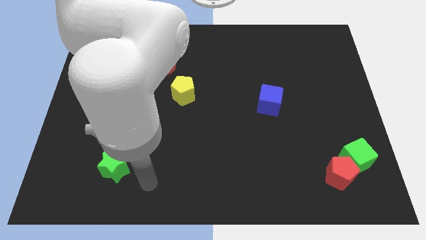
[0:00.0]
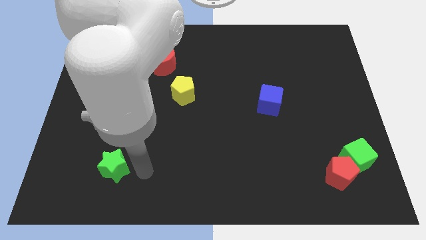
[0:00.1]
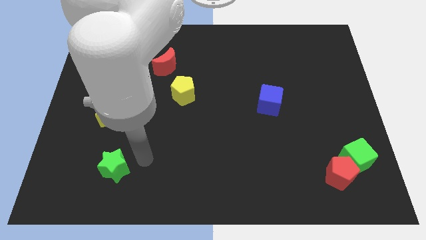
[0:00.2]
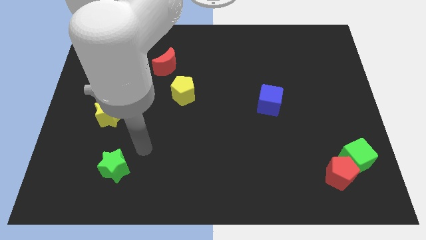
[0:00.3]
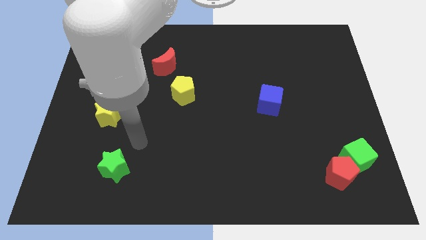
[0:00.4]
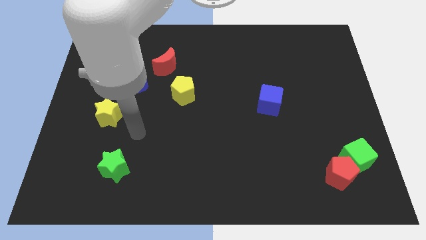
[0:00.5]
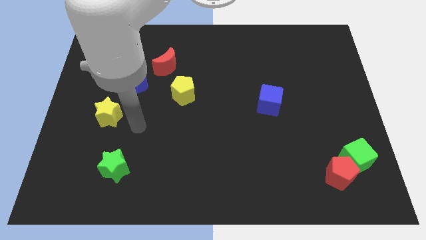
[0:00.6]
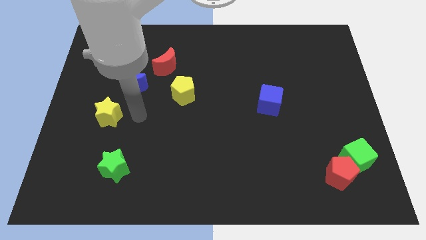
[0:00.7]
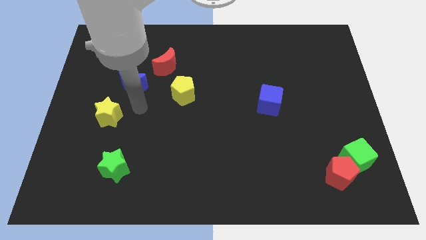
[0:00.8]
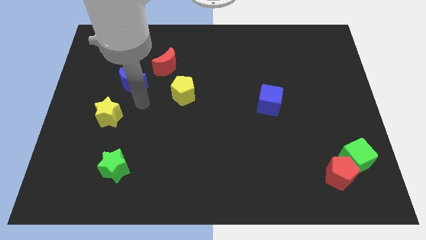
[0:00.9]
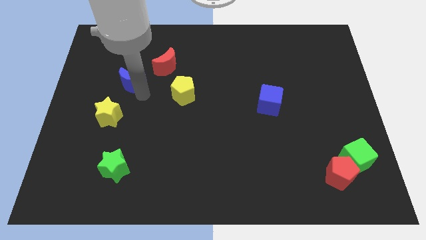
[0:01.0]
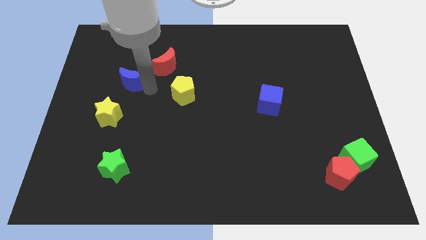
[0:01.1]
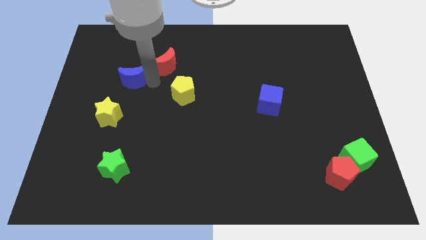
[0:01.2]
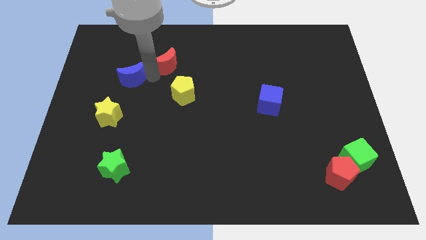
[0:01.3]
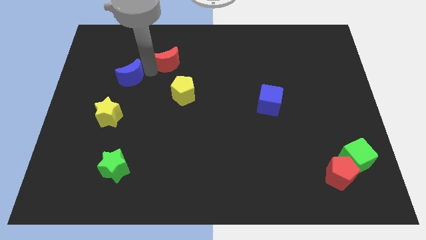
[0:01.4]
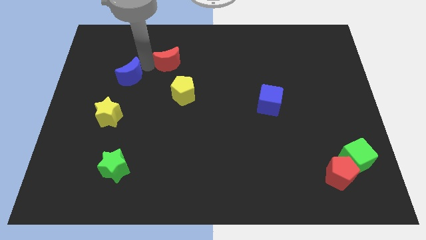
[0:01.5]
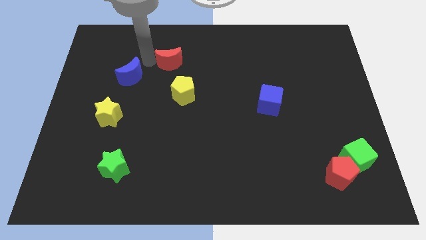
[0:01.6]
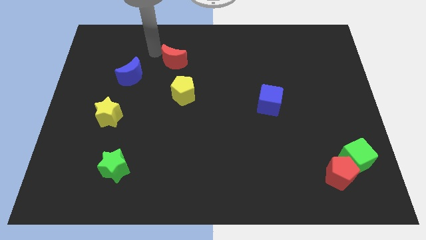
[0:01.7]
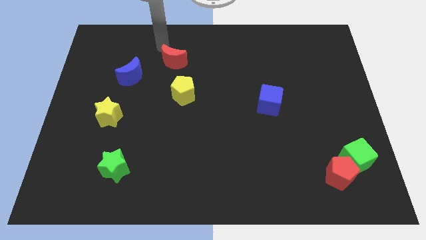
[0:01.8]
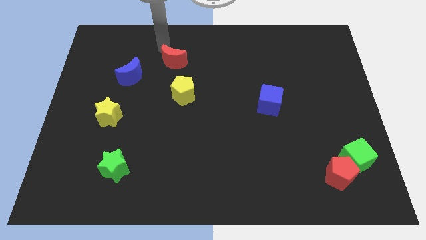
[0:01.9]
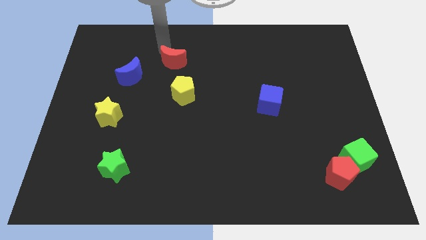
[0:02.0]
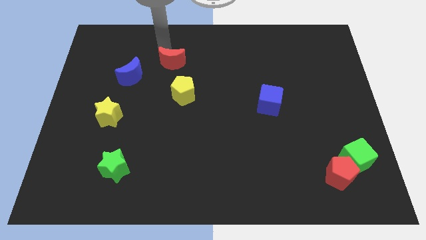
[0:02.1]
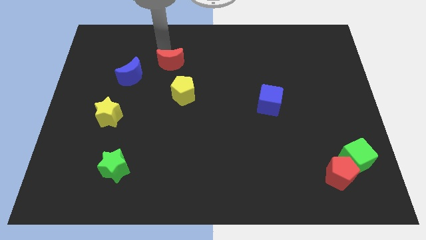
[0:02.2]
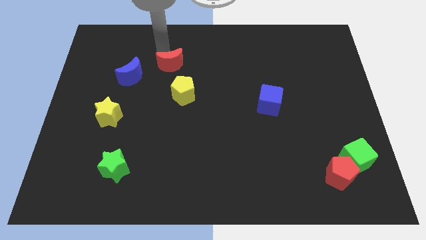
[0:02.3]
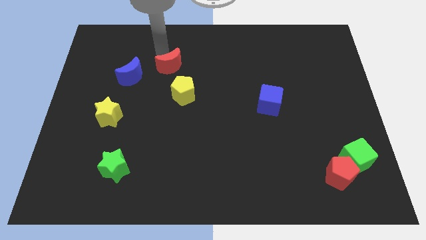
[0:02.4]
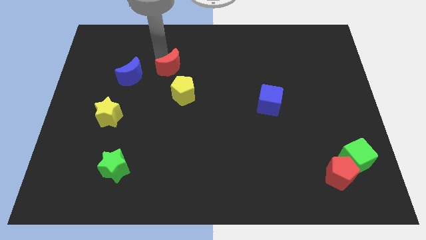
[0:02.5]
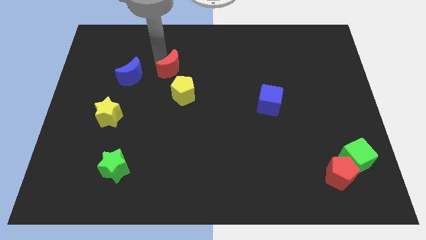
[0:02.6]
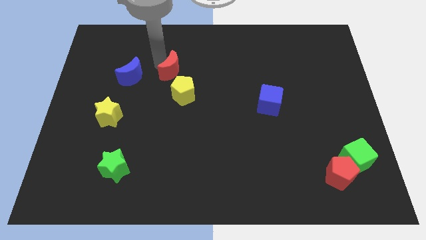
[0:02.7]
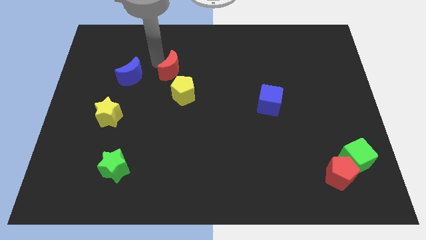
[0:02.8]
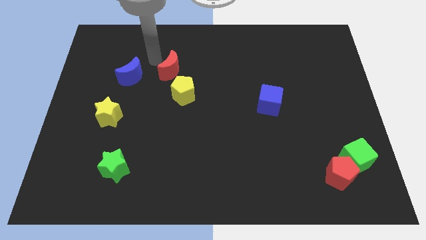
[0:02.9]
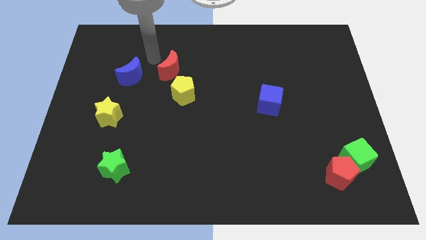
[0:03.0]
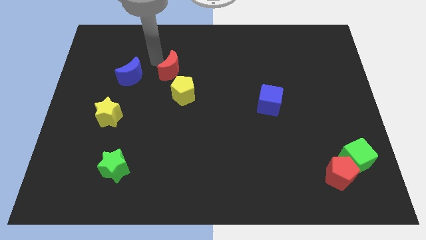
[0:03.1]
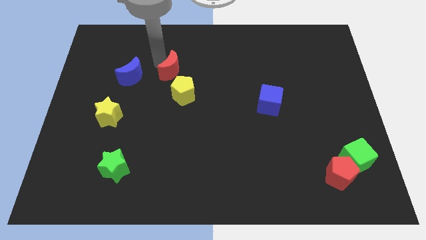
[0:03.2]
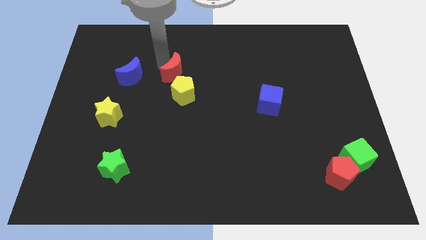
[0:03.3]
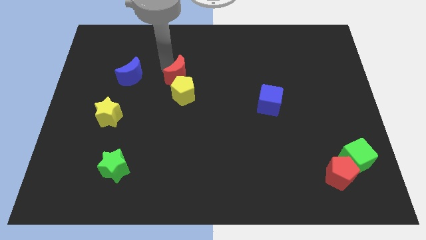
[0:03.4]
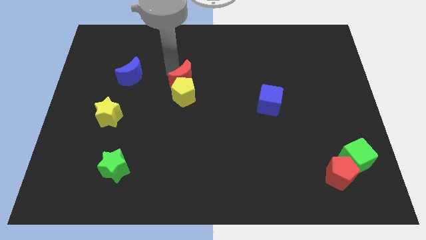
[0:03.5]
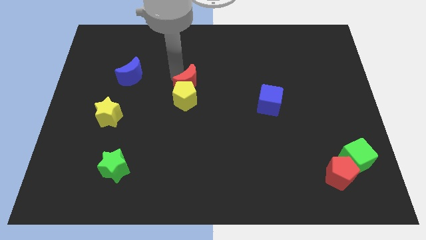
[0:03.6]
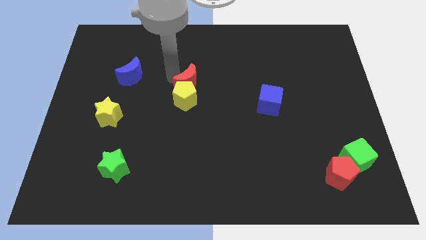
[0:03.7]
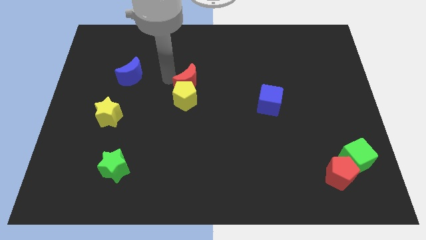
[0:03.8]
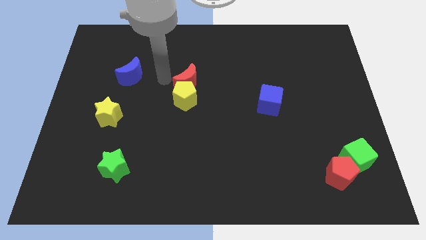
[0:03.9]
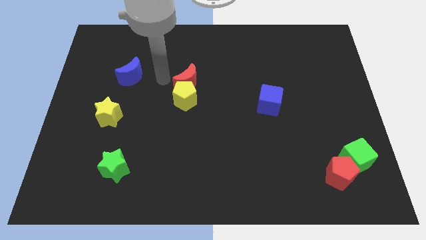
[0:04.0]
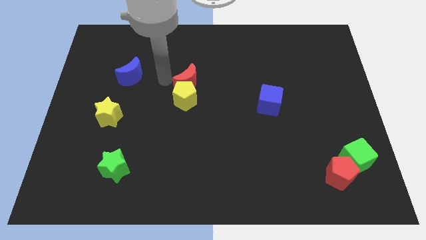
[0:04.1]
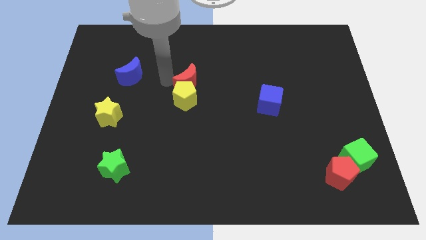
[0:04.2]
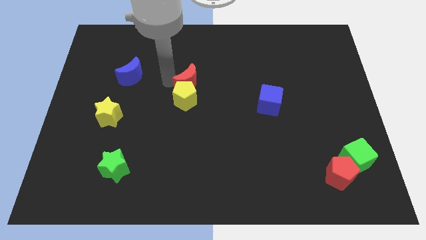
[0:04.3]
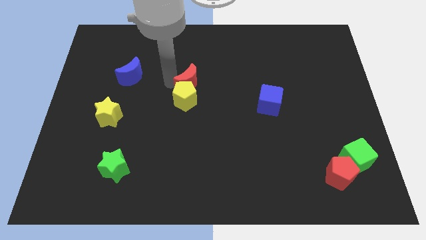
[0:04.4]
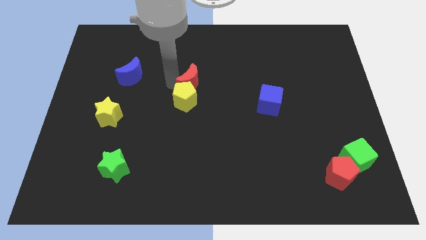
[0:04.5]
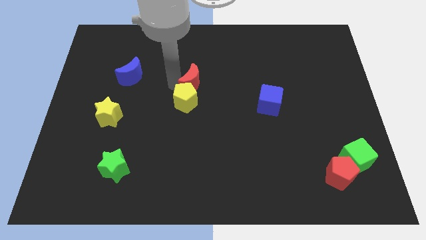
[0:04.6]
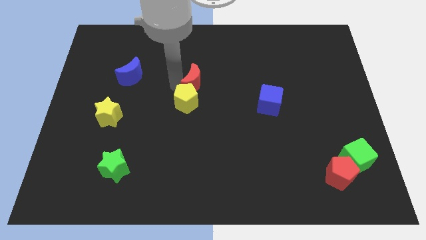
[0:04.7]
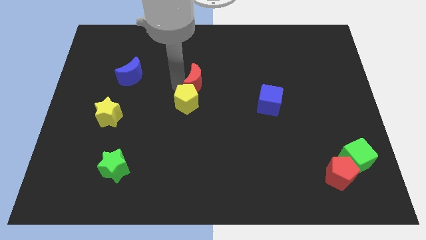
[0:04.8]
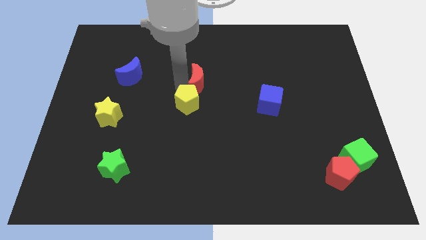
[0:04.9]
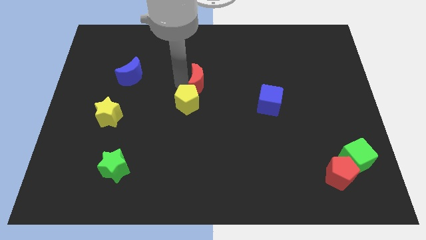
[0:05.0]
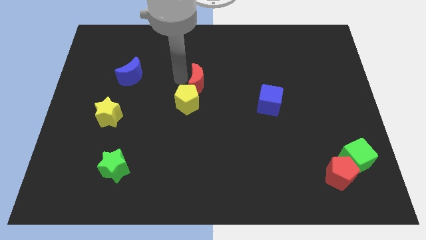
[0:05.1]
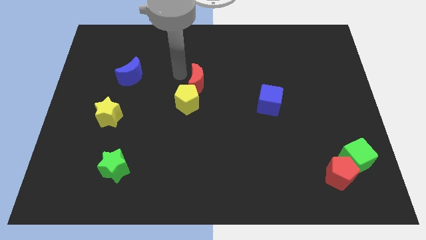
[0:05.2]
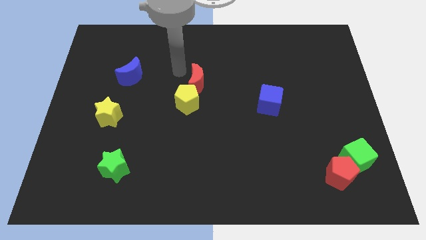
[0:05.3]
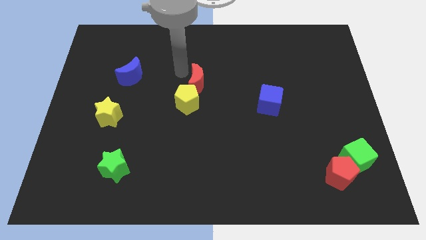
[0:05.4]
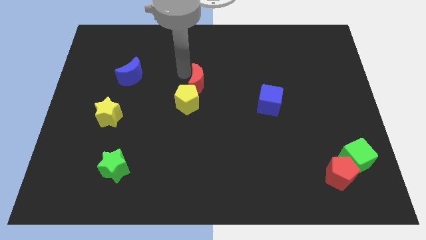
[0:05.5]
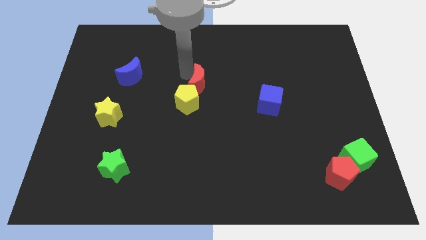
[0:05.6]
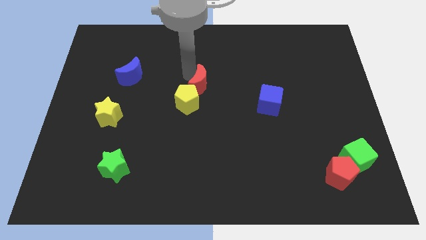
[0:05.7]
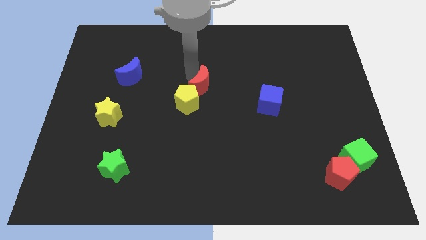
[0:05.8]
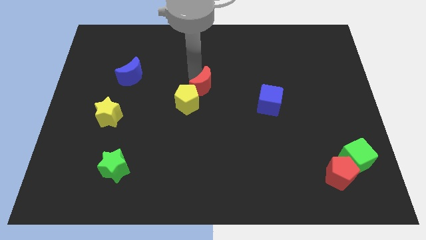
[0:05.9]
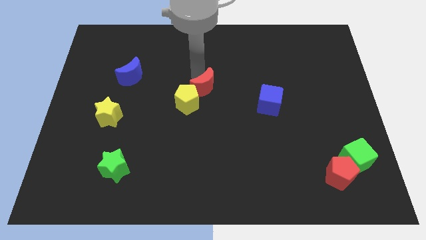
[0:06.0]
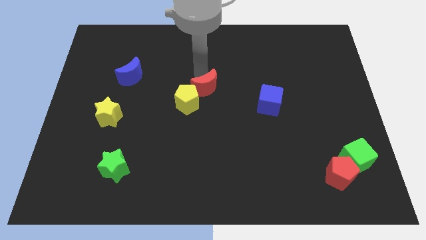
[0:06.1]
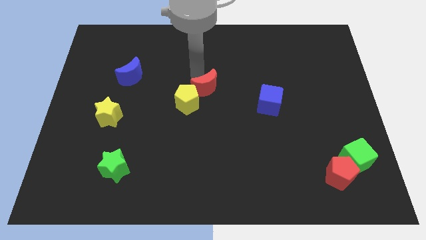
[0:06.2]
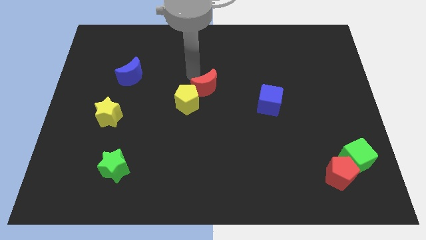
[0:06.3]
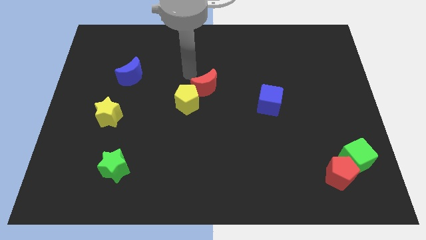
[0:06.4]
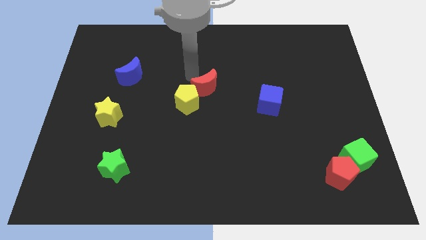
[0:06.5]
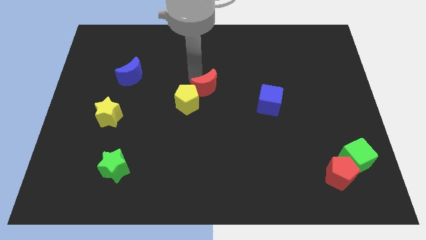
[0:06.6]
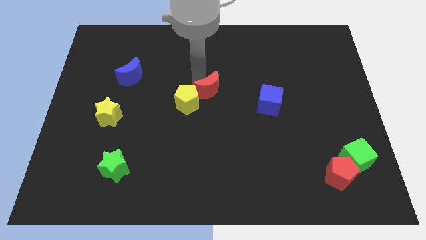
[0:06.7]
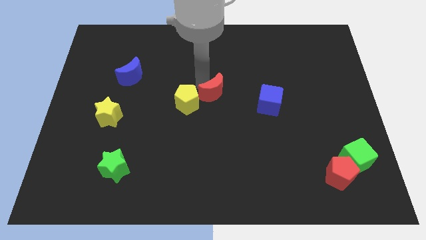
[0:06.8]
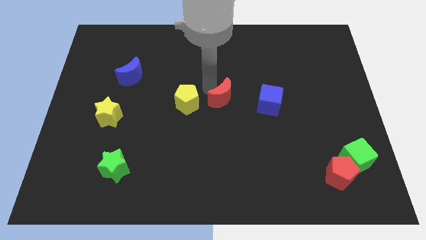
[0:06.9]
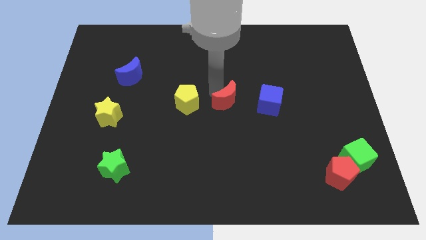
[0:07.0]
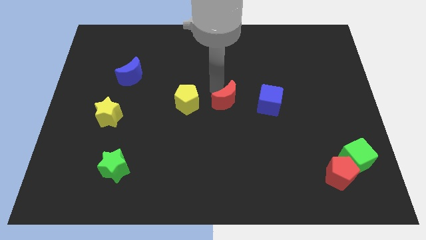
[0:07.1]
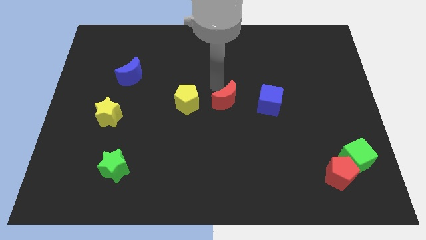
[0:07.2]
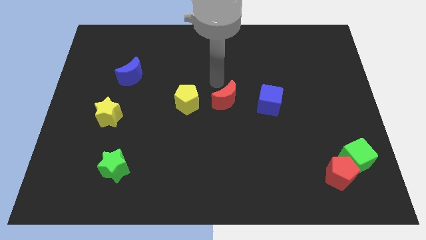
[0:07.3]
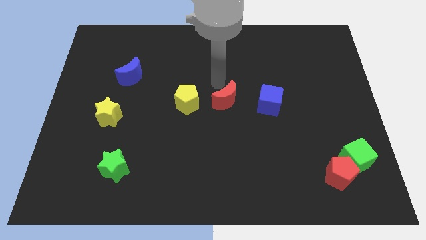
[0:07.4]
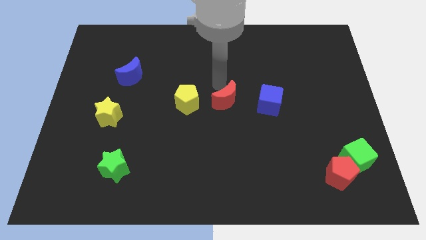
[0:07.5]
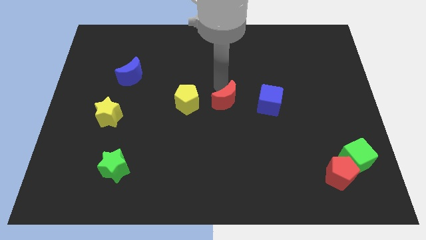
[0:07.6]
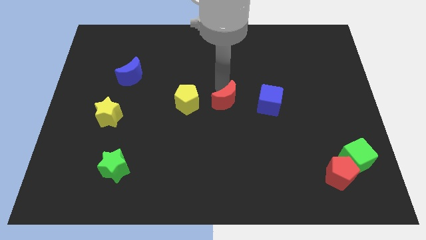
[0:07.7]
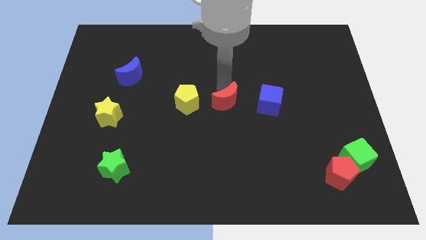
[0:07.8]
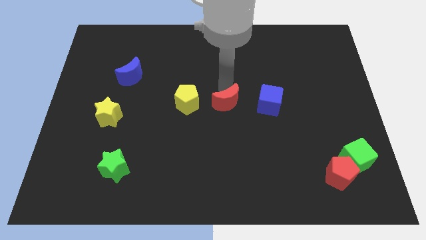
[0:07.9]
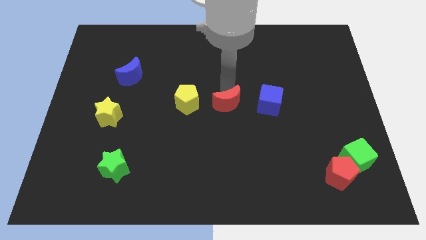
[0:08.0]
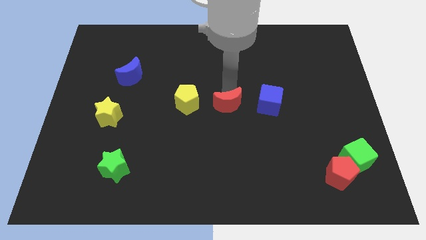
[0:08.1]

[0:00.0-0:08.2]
push the red moon downwards and to the right
